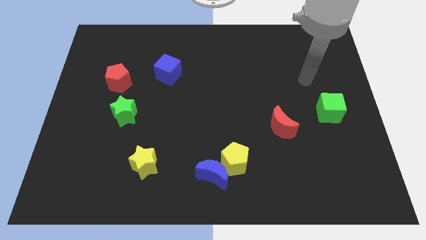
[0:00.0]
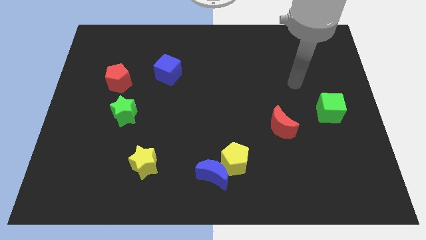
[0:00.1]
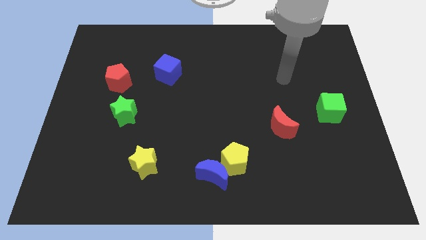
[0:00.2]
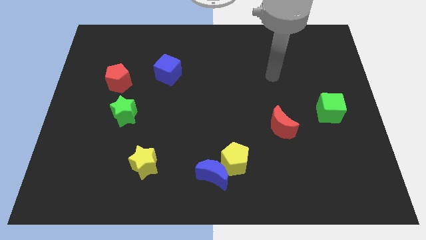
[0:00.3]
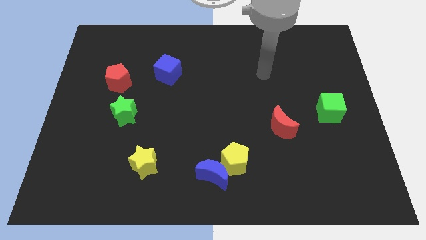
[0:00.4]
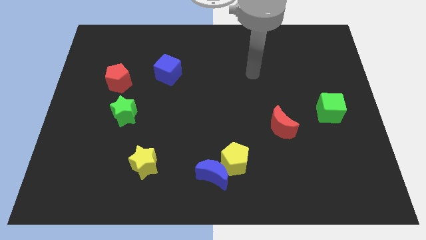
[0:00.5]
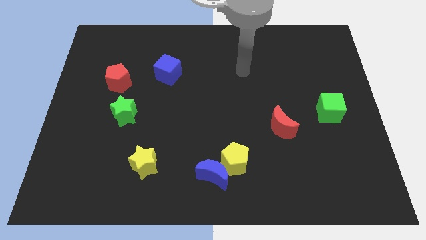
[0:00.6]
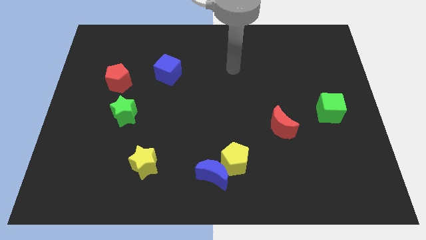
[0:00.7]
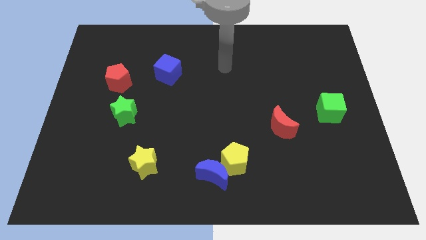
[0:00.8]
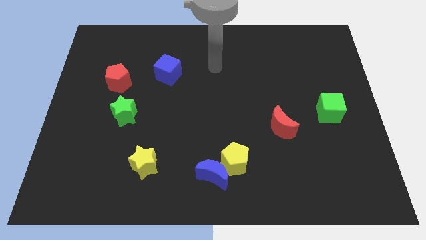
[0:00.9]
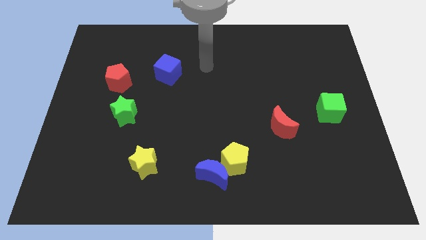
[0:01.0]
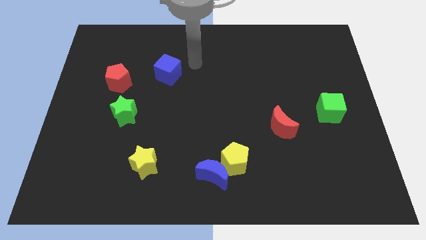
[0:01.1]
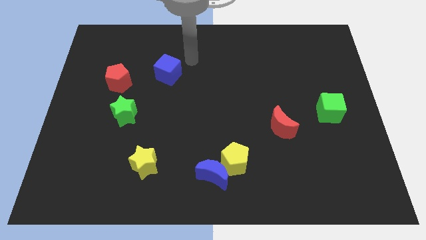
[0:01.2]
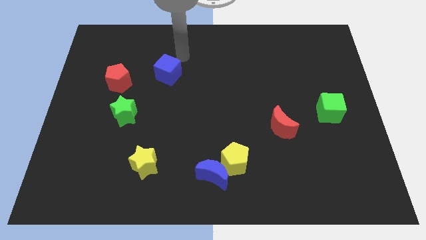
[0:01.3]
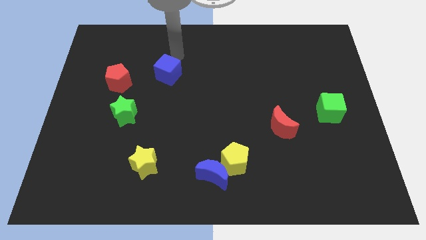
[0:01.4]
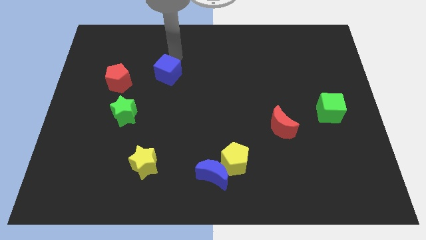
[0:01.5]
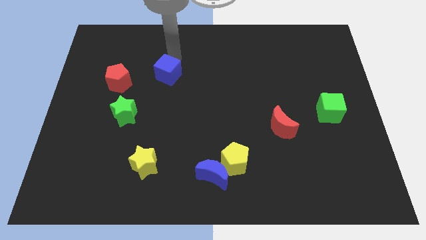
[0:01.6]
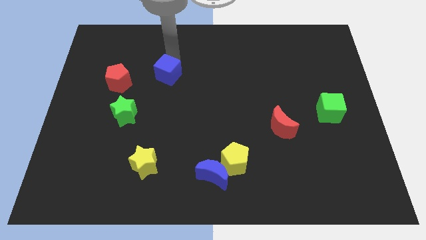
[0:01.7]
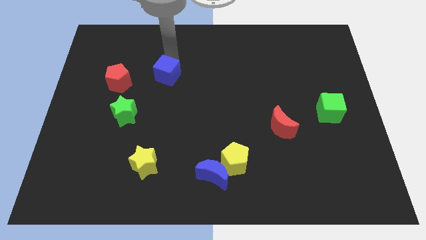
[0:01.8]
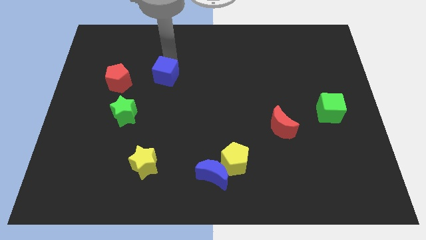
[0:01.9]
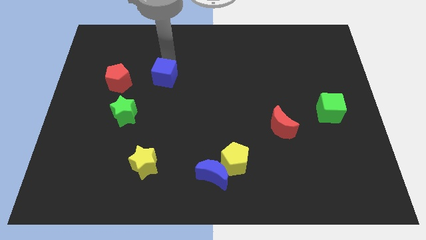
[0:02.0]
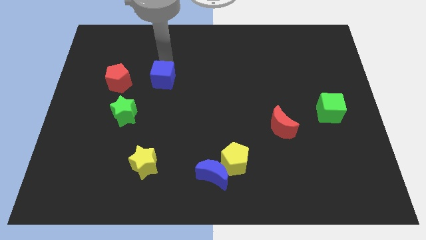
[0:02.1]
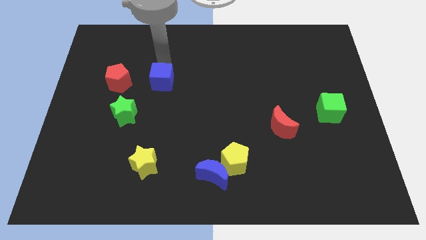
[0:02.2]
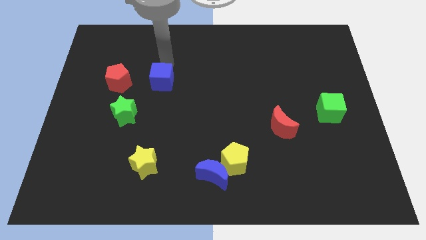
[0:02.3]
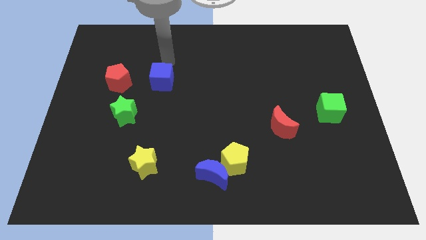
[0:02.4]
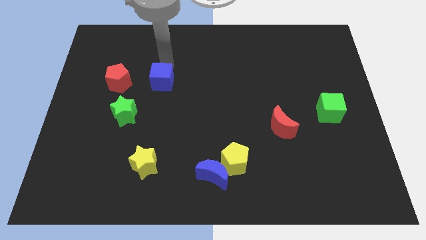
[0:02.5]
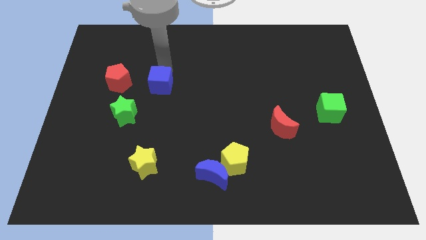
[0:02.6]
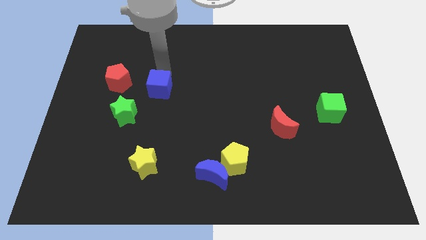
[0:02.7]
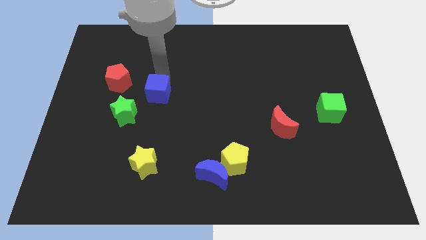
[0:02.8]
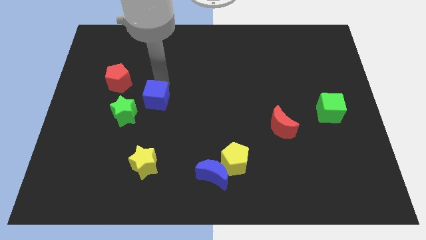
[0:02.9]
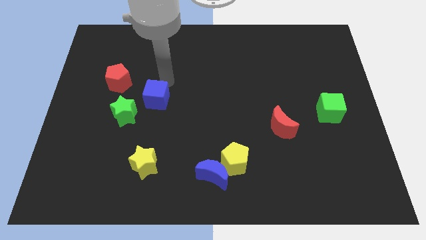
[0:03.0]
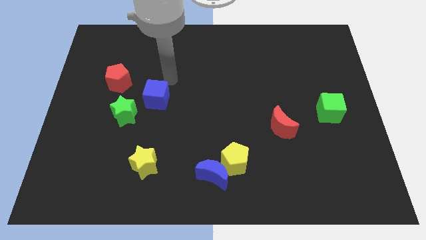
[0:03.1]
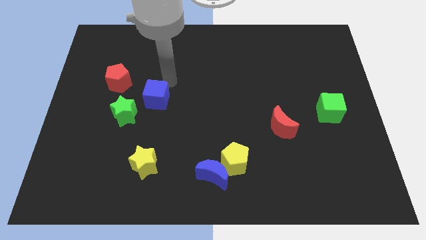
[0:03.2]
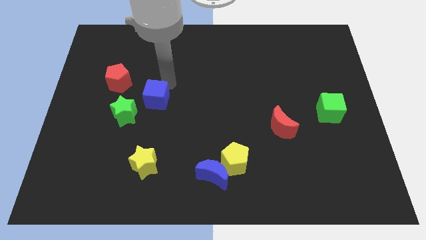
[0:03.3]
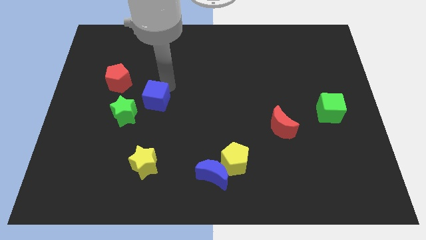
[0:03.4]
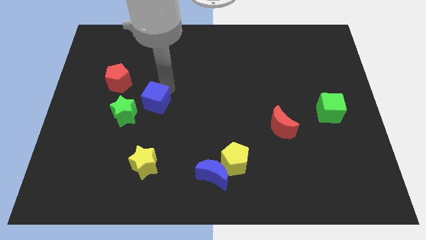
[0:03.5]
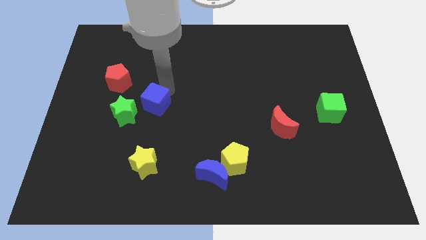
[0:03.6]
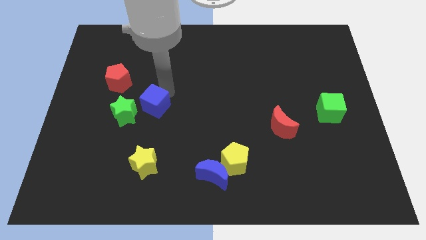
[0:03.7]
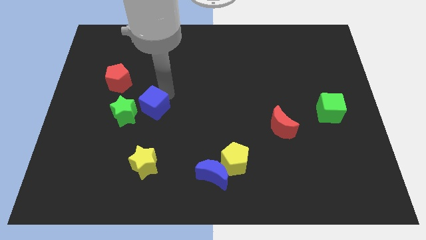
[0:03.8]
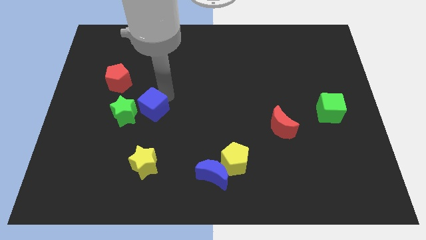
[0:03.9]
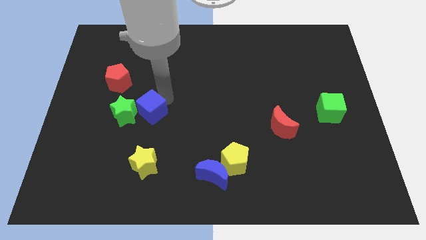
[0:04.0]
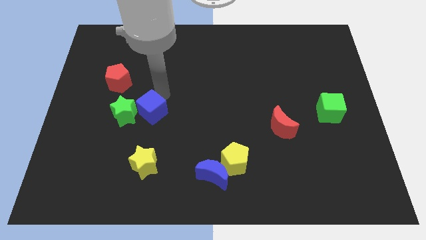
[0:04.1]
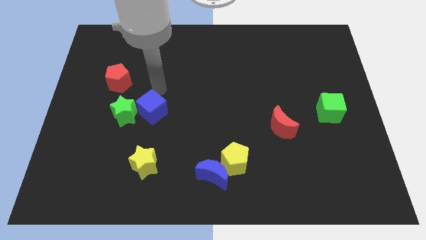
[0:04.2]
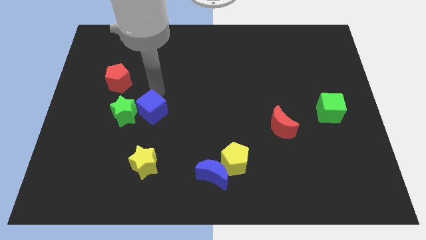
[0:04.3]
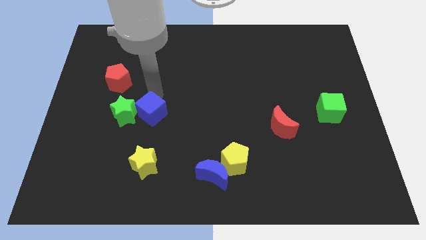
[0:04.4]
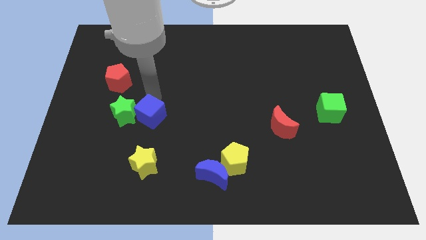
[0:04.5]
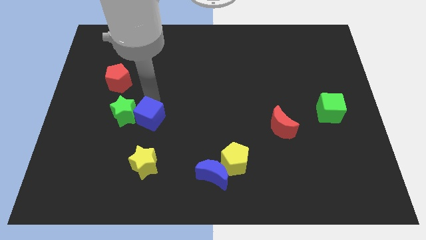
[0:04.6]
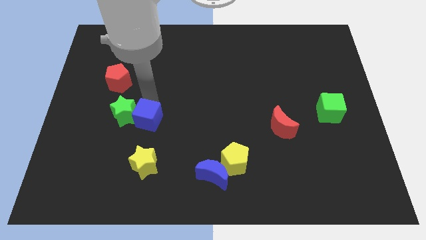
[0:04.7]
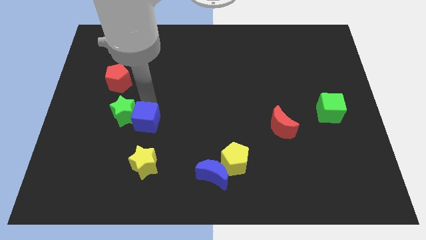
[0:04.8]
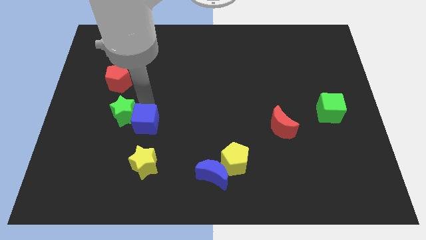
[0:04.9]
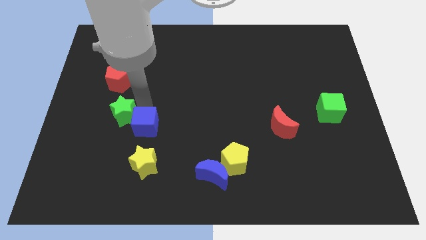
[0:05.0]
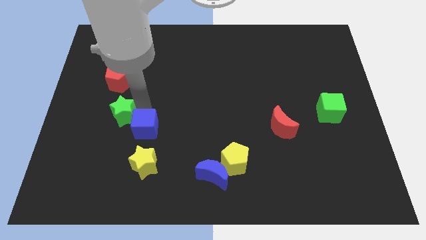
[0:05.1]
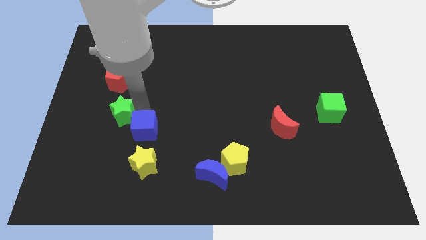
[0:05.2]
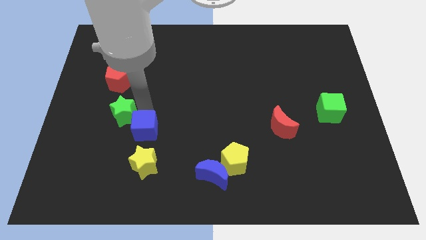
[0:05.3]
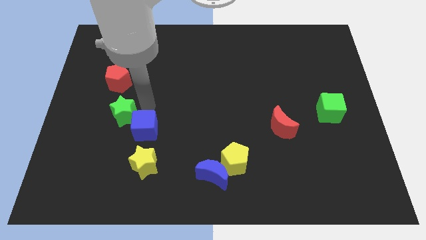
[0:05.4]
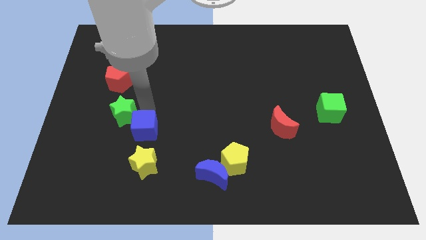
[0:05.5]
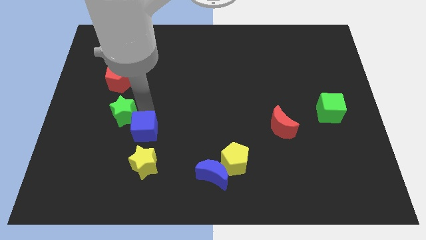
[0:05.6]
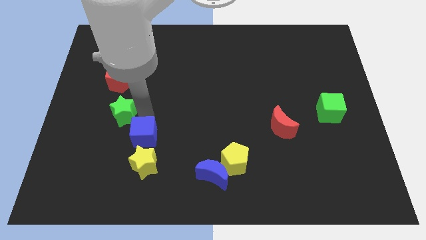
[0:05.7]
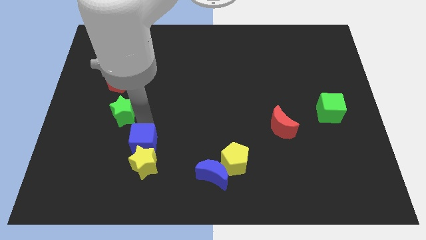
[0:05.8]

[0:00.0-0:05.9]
move the blue cube towards the yellow star

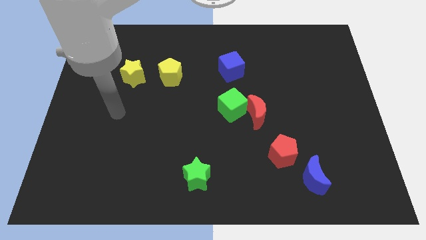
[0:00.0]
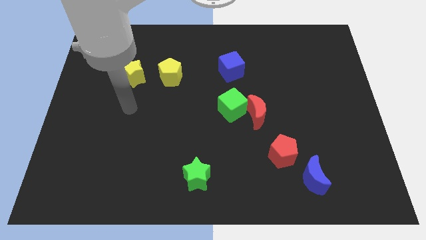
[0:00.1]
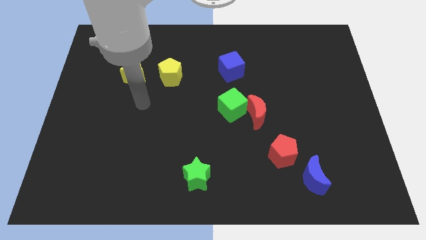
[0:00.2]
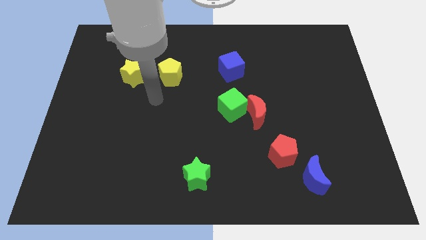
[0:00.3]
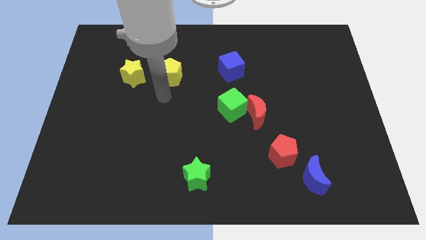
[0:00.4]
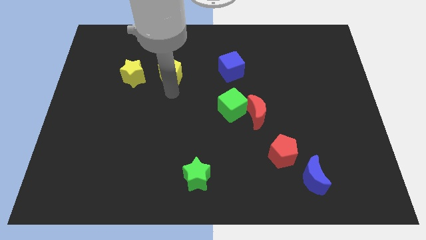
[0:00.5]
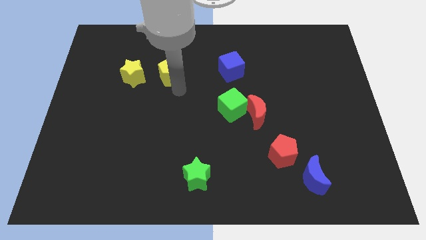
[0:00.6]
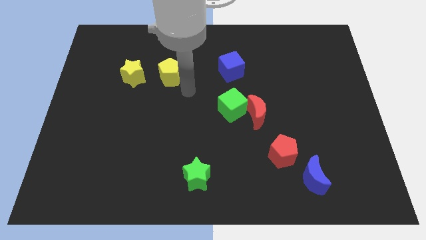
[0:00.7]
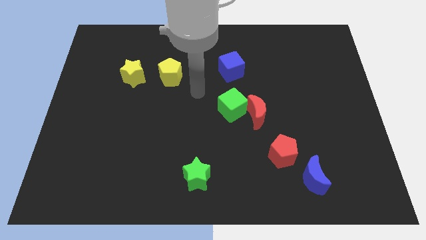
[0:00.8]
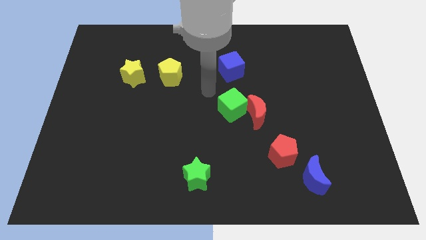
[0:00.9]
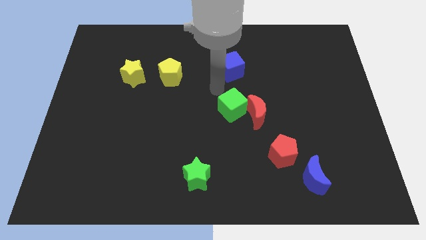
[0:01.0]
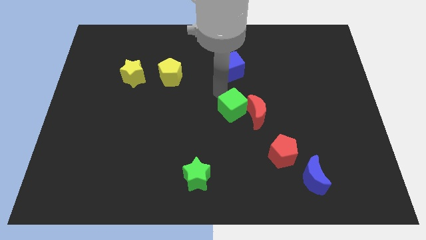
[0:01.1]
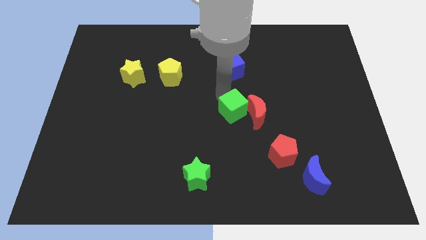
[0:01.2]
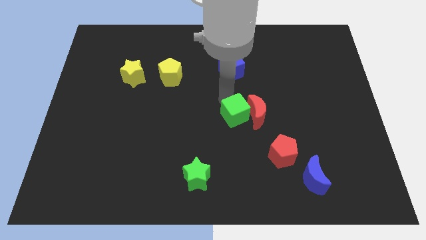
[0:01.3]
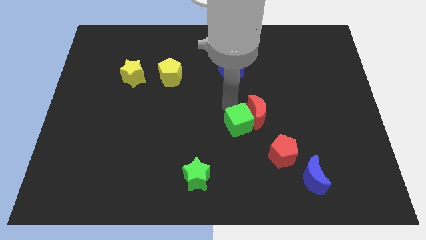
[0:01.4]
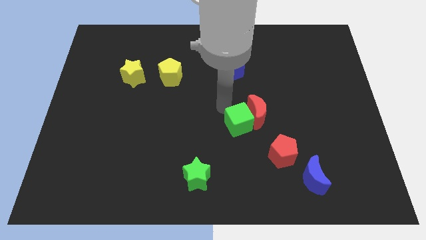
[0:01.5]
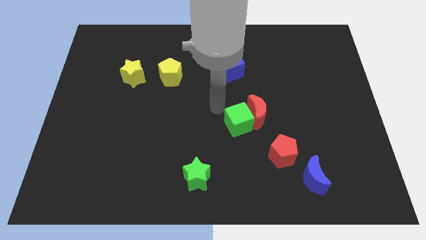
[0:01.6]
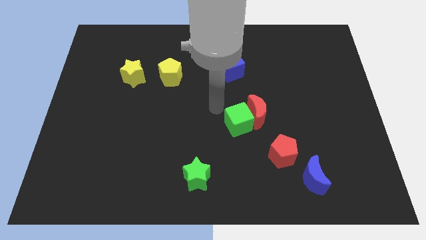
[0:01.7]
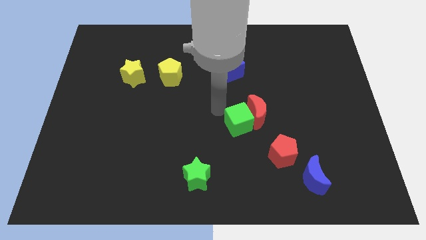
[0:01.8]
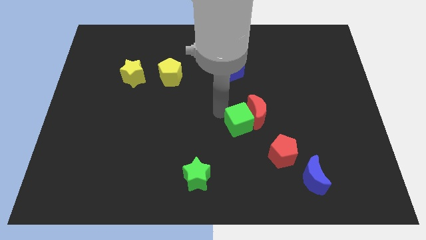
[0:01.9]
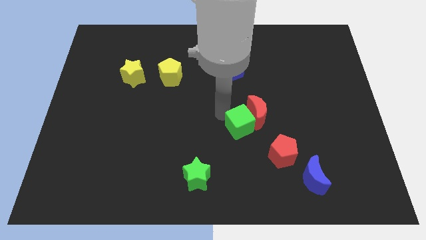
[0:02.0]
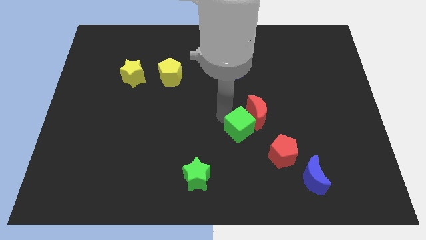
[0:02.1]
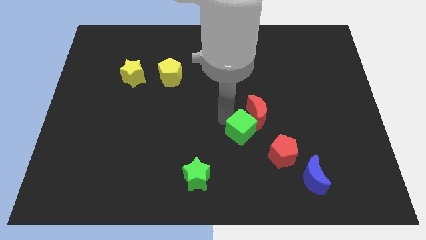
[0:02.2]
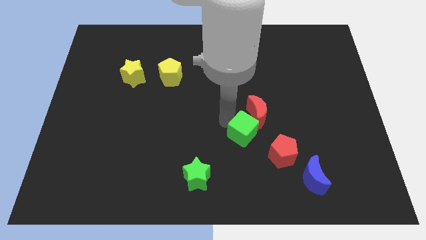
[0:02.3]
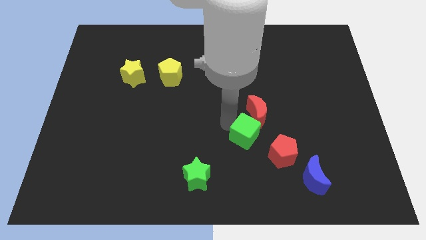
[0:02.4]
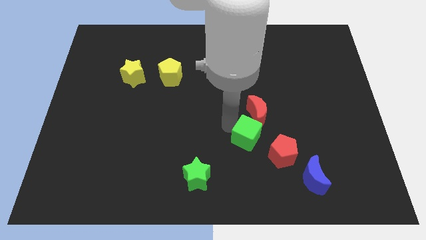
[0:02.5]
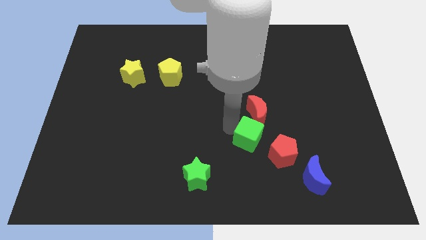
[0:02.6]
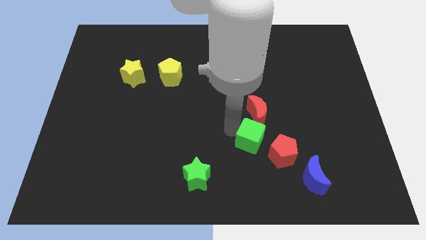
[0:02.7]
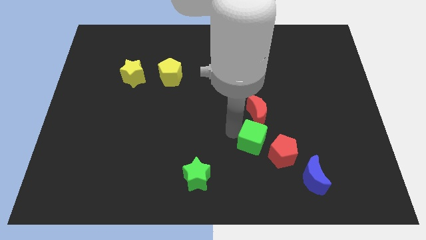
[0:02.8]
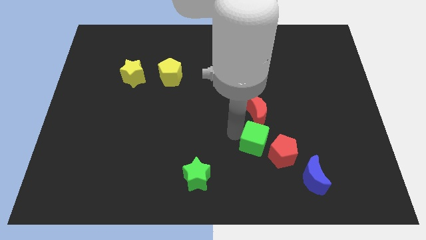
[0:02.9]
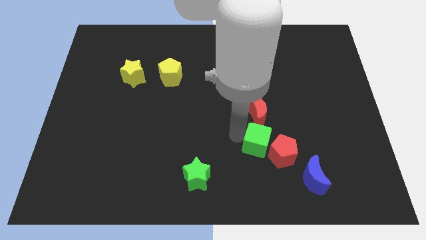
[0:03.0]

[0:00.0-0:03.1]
move the green cube next to the red pentagon
